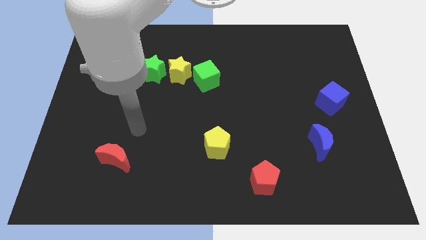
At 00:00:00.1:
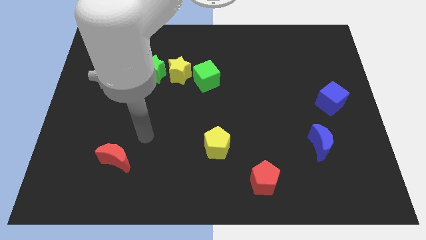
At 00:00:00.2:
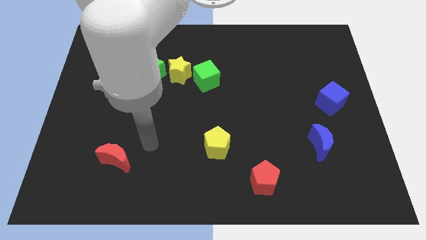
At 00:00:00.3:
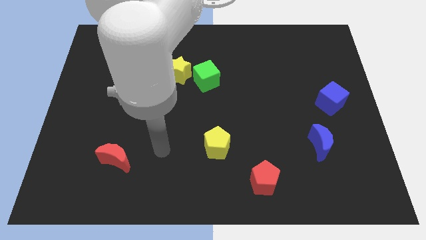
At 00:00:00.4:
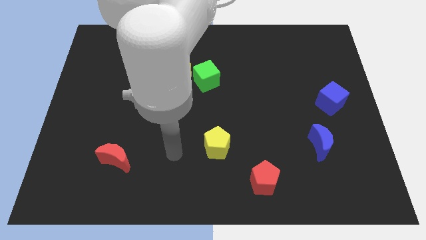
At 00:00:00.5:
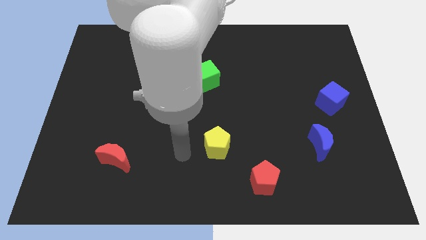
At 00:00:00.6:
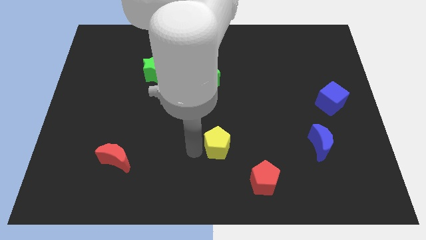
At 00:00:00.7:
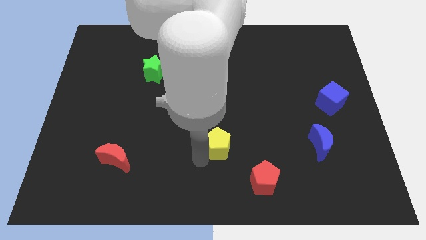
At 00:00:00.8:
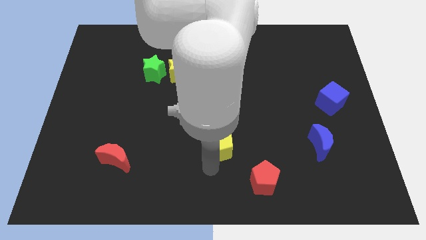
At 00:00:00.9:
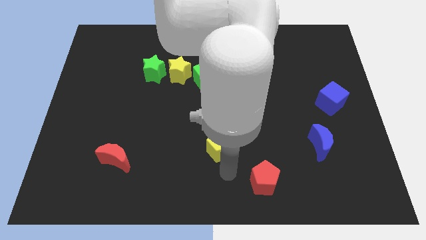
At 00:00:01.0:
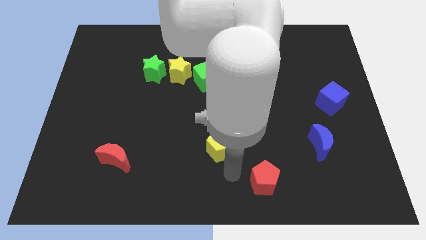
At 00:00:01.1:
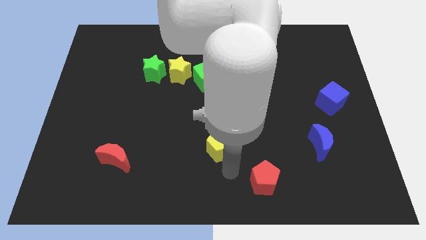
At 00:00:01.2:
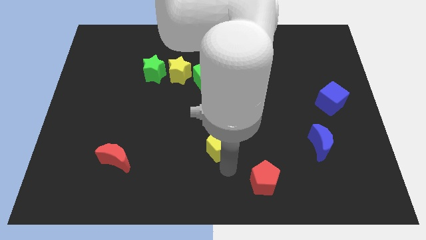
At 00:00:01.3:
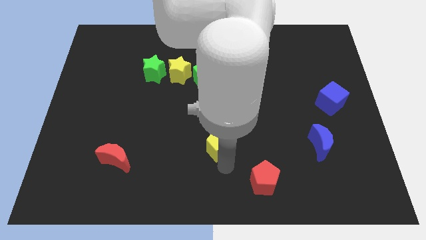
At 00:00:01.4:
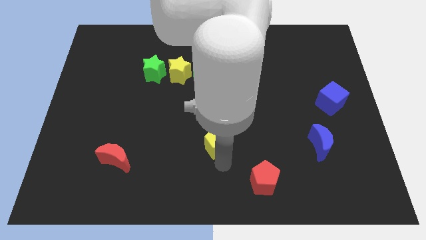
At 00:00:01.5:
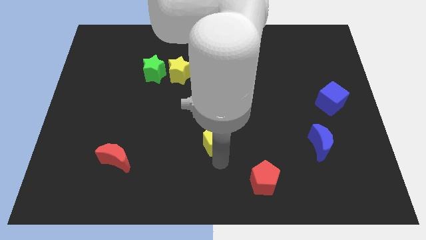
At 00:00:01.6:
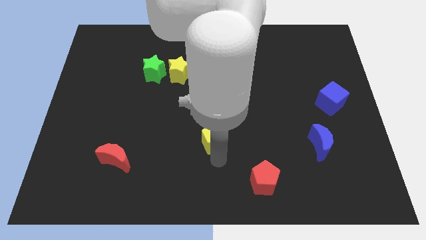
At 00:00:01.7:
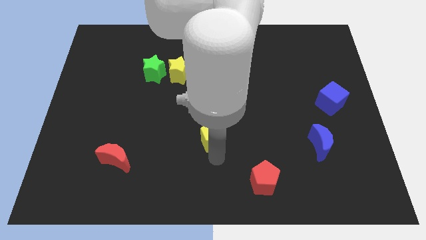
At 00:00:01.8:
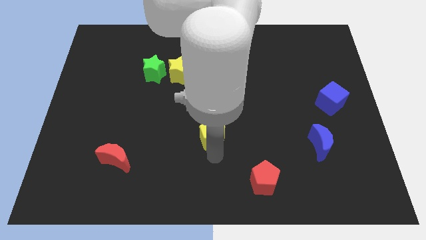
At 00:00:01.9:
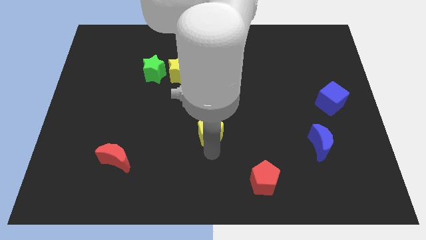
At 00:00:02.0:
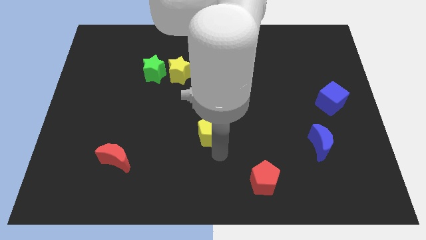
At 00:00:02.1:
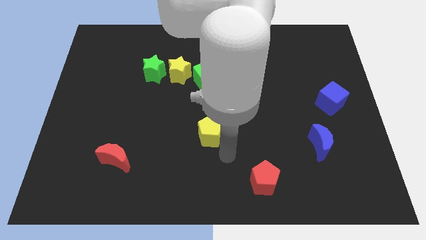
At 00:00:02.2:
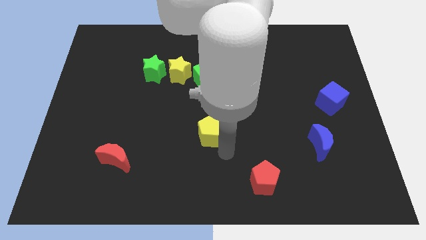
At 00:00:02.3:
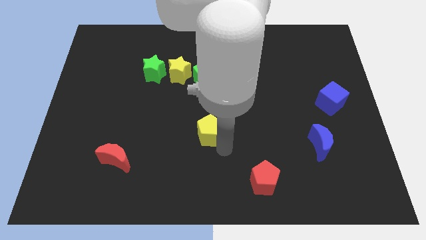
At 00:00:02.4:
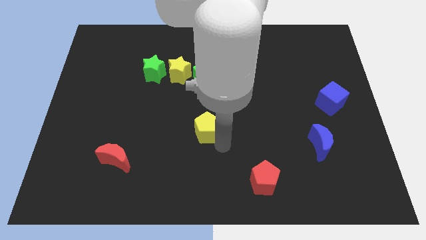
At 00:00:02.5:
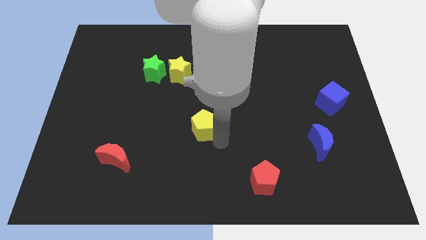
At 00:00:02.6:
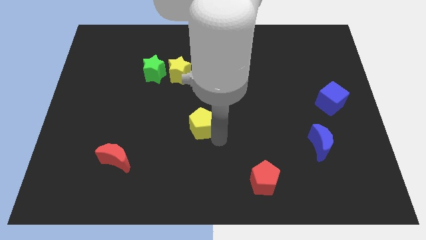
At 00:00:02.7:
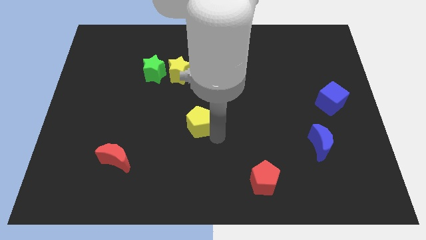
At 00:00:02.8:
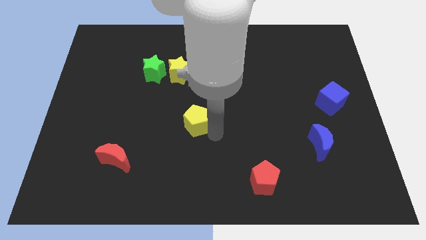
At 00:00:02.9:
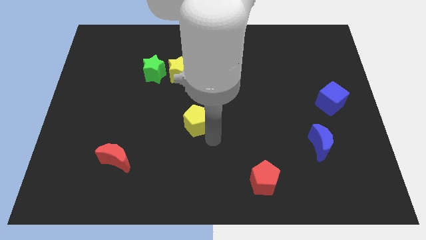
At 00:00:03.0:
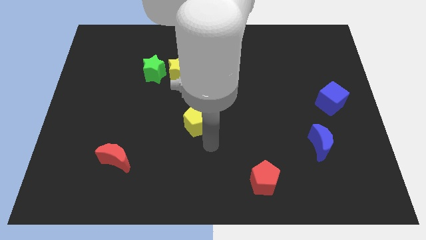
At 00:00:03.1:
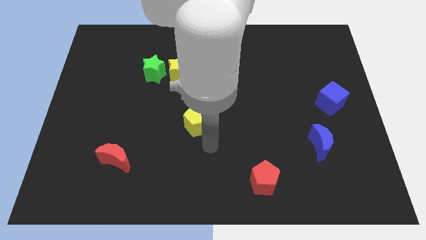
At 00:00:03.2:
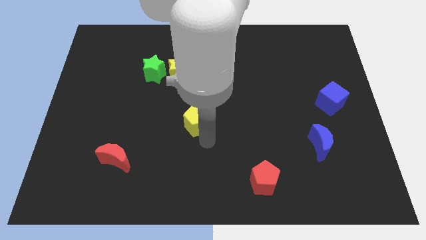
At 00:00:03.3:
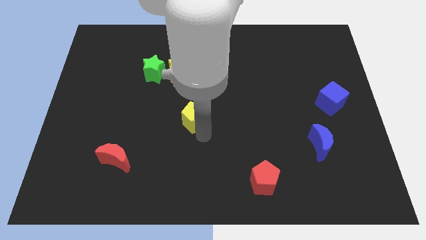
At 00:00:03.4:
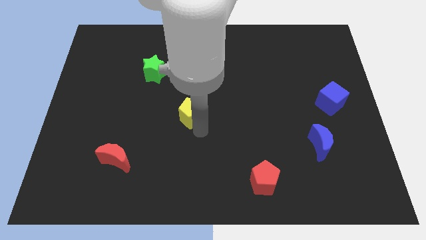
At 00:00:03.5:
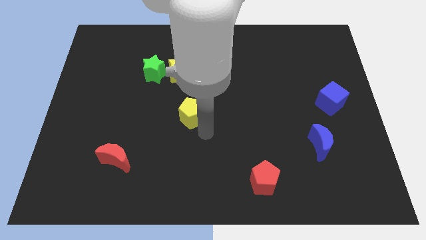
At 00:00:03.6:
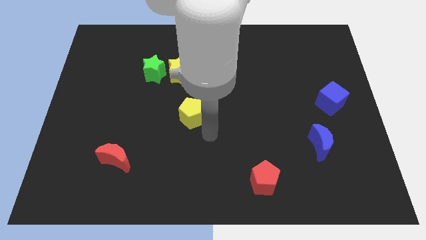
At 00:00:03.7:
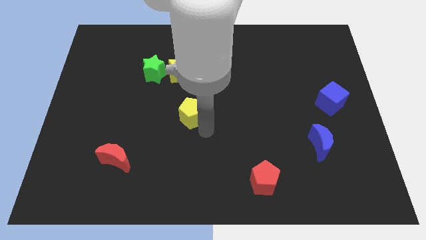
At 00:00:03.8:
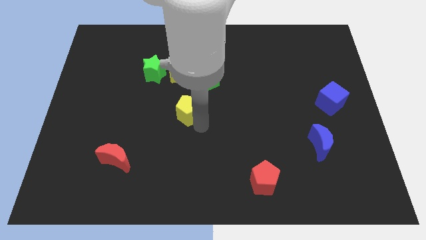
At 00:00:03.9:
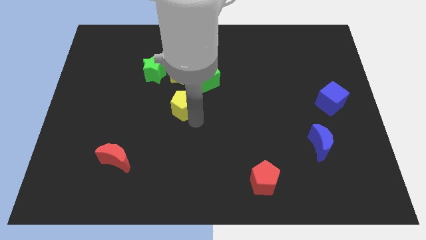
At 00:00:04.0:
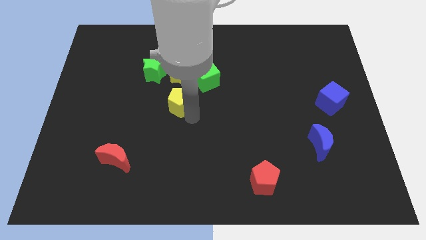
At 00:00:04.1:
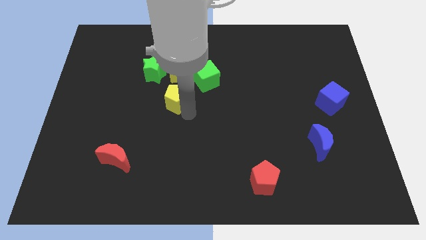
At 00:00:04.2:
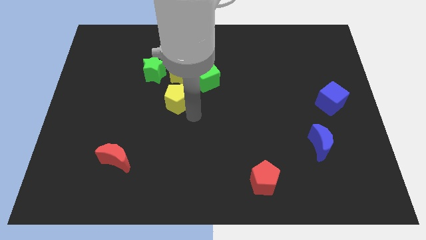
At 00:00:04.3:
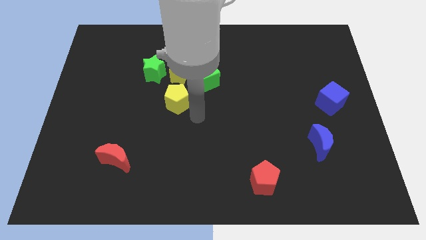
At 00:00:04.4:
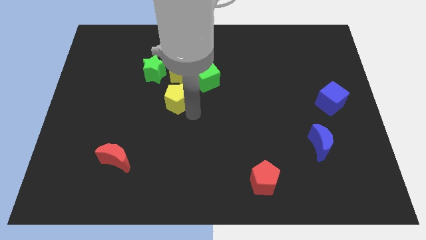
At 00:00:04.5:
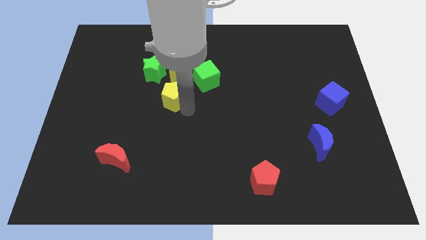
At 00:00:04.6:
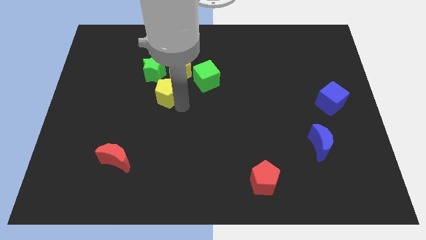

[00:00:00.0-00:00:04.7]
slide the yellow pentagon diagonally down and to the left of the yellow star

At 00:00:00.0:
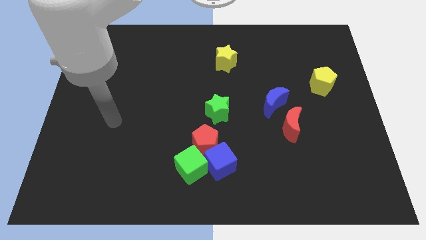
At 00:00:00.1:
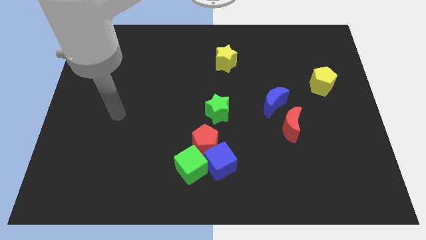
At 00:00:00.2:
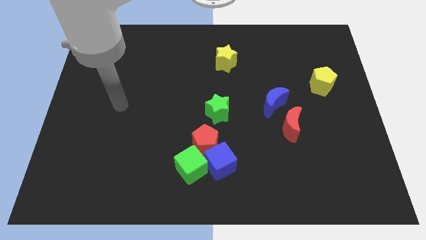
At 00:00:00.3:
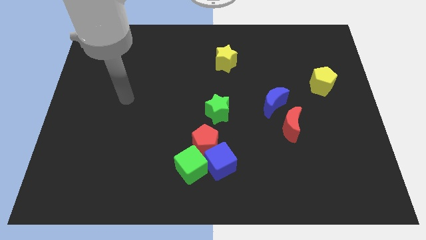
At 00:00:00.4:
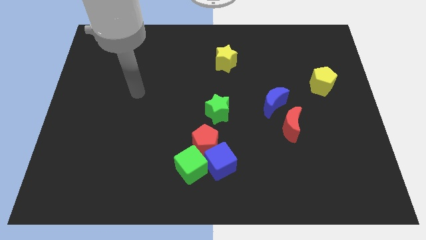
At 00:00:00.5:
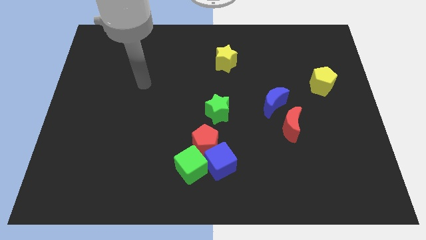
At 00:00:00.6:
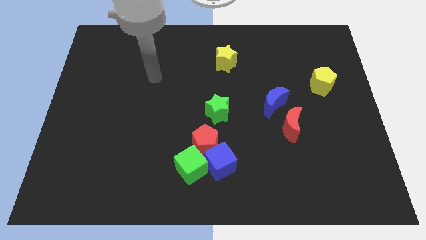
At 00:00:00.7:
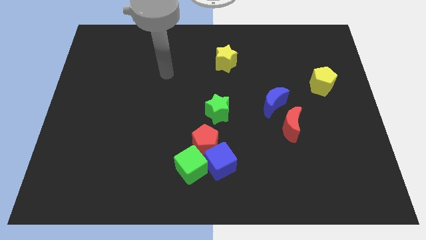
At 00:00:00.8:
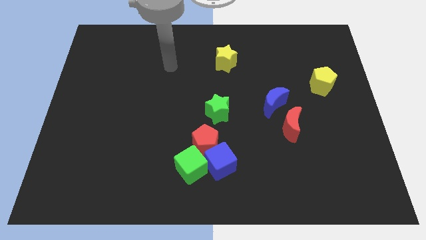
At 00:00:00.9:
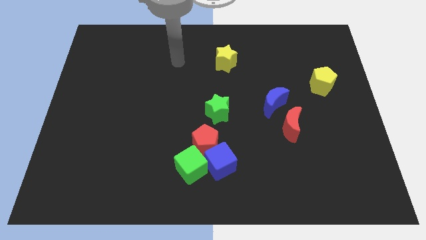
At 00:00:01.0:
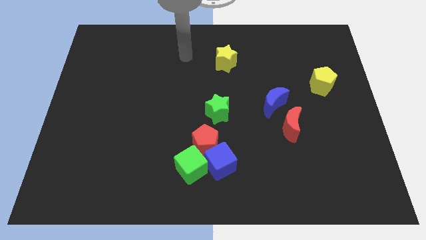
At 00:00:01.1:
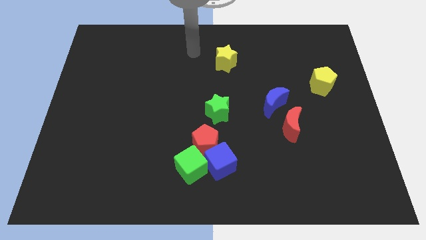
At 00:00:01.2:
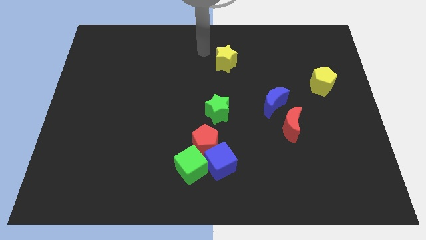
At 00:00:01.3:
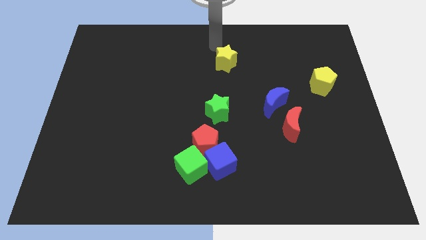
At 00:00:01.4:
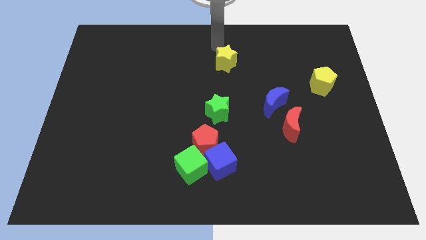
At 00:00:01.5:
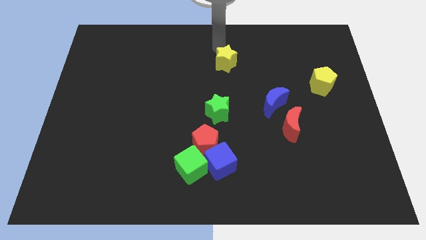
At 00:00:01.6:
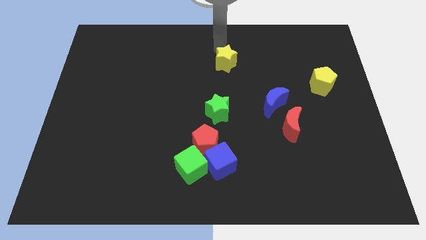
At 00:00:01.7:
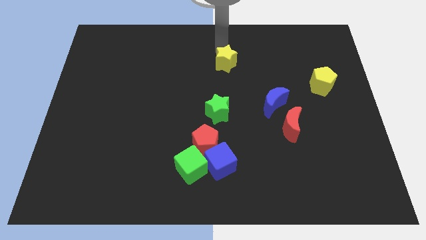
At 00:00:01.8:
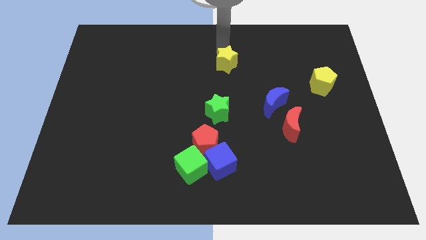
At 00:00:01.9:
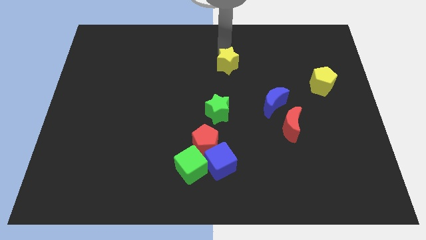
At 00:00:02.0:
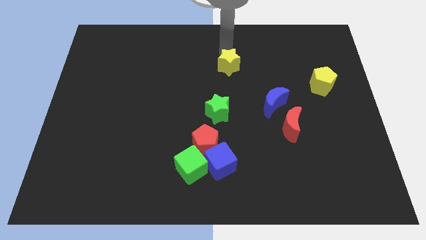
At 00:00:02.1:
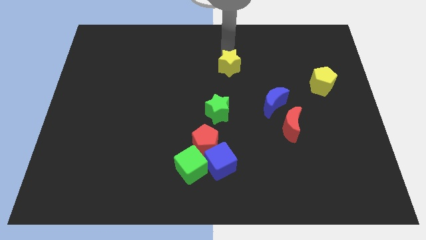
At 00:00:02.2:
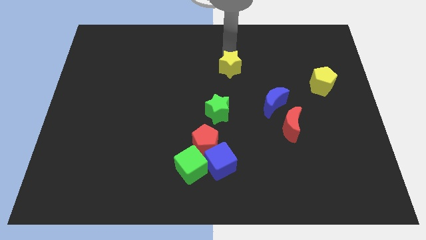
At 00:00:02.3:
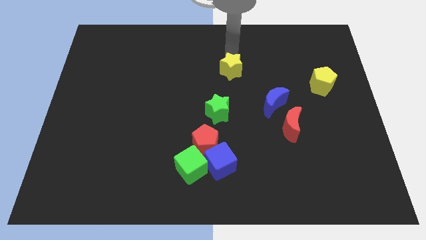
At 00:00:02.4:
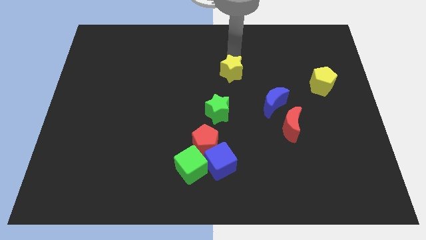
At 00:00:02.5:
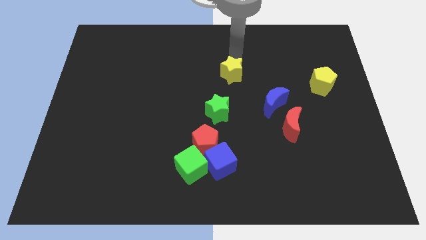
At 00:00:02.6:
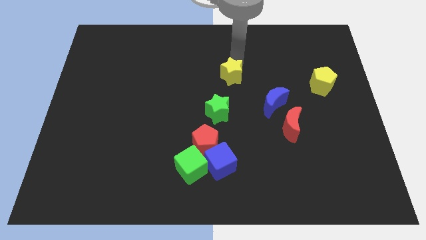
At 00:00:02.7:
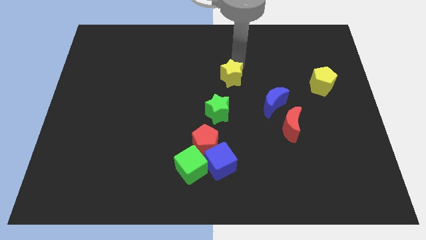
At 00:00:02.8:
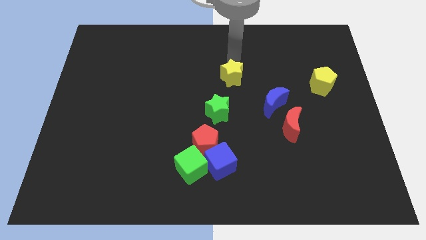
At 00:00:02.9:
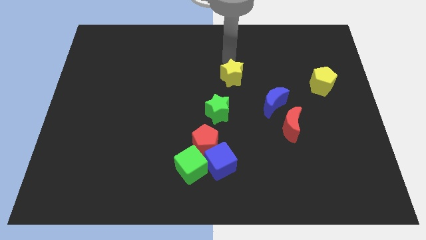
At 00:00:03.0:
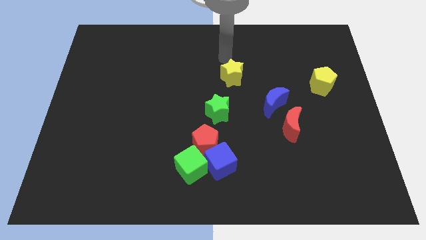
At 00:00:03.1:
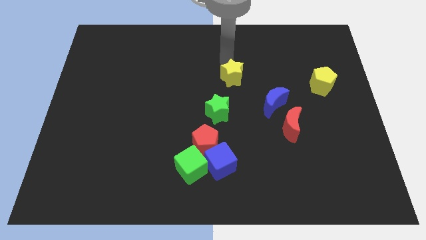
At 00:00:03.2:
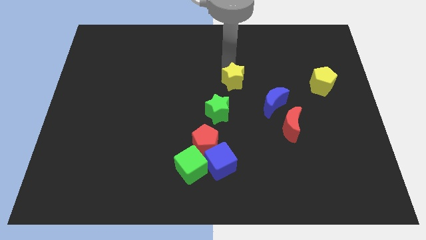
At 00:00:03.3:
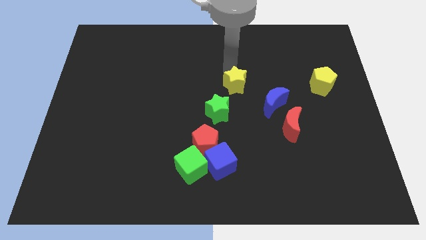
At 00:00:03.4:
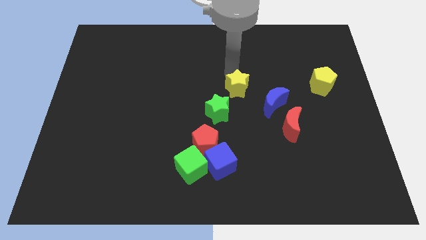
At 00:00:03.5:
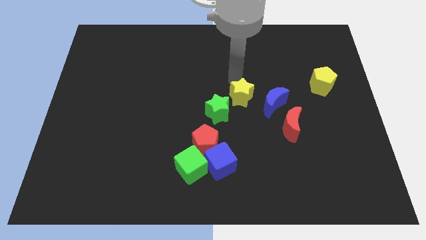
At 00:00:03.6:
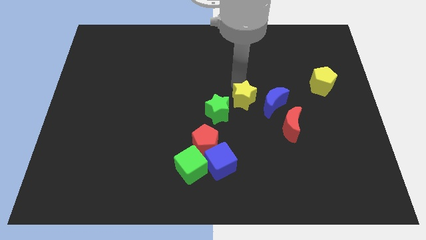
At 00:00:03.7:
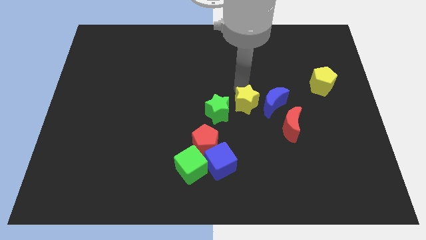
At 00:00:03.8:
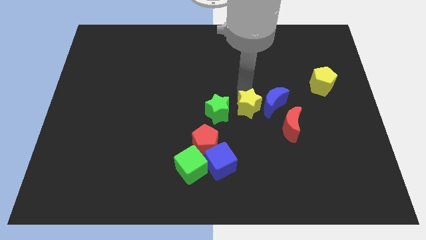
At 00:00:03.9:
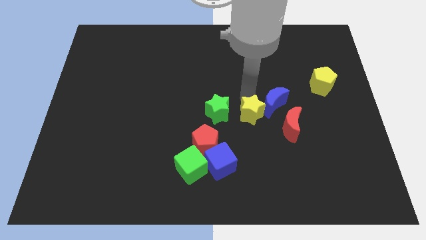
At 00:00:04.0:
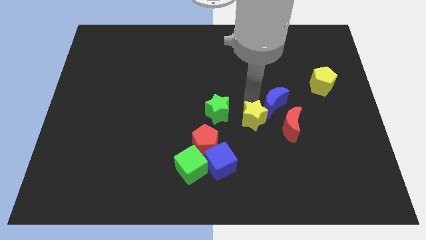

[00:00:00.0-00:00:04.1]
push the yellow star diagonally down and to the right of the green star
